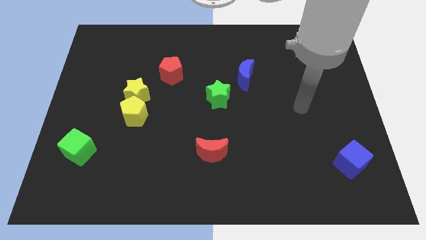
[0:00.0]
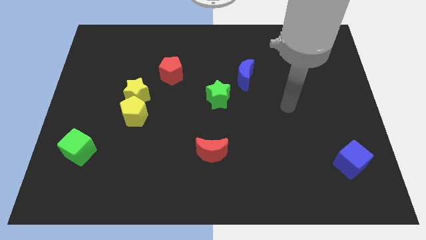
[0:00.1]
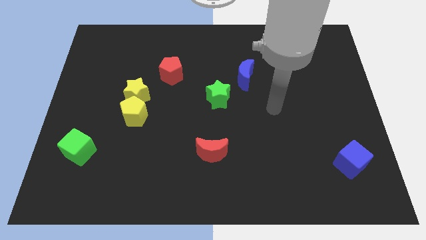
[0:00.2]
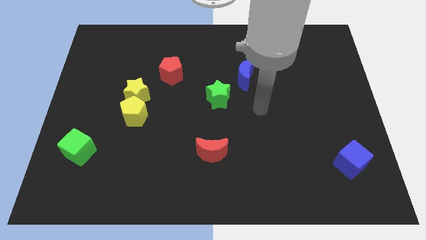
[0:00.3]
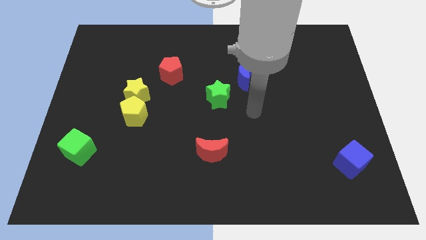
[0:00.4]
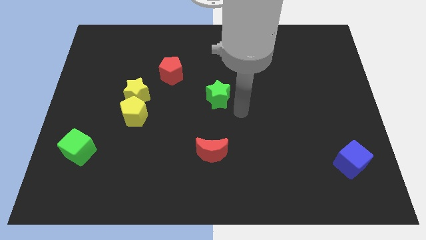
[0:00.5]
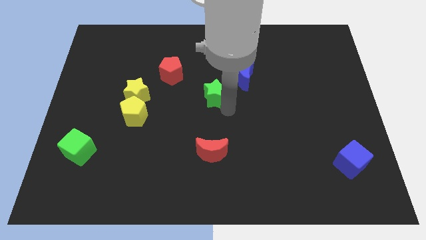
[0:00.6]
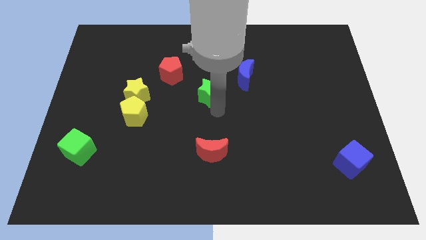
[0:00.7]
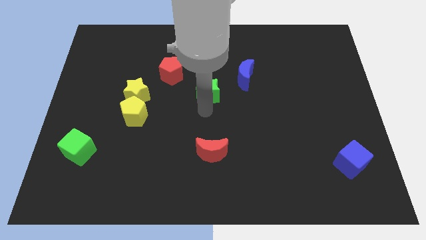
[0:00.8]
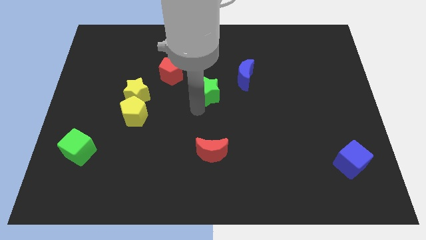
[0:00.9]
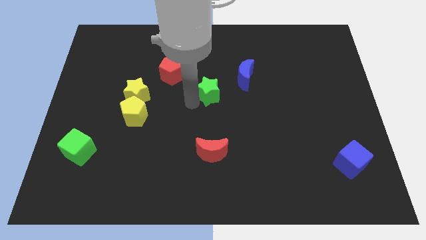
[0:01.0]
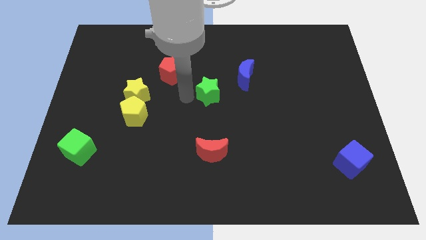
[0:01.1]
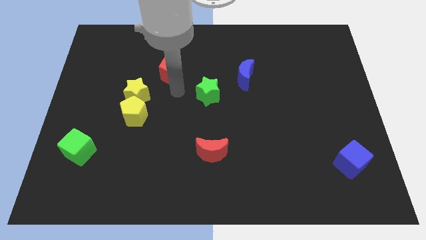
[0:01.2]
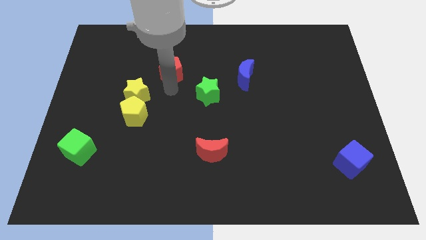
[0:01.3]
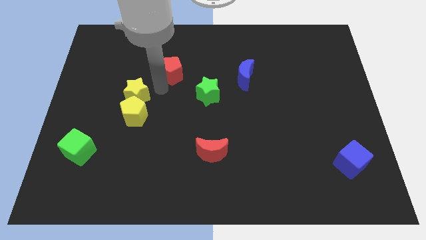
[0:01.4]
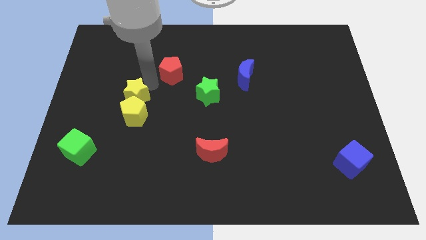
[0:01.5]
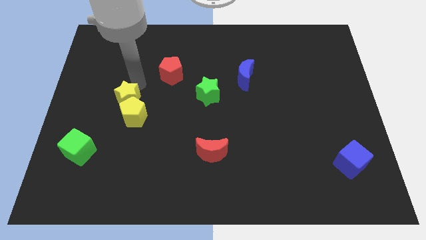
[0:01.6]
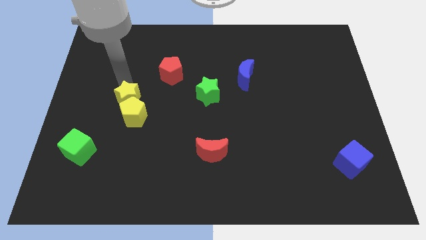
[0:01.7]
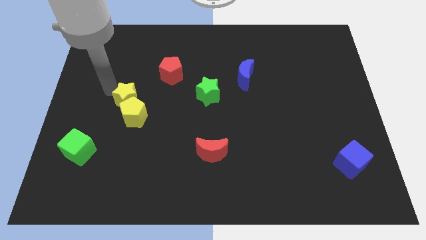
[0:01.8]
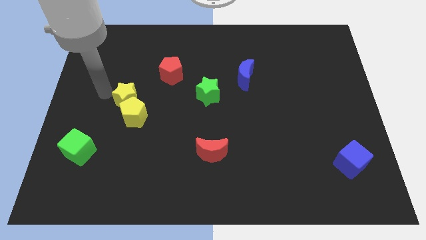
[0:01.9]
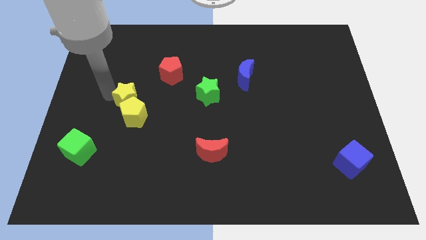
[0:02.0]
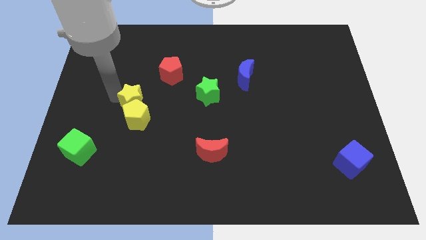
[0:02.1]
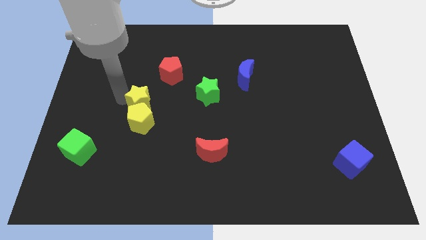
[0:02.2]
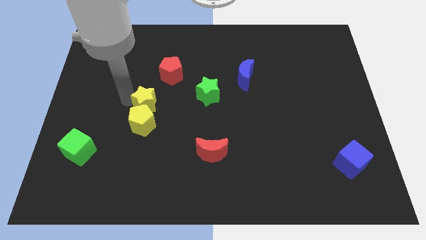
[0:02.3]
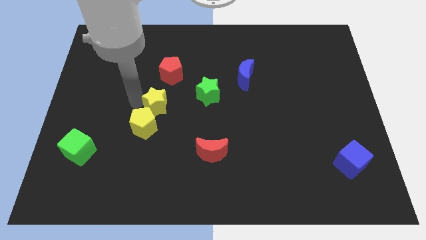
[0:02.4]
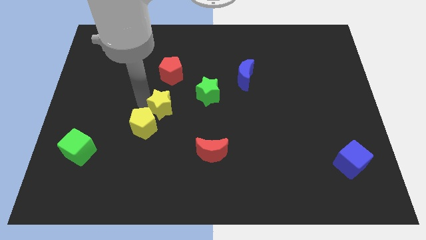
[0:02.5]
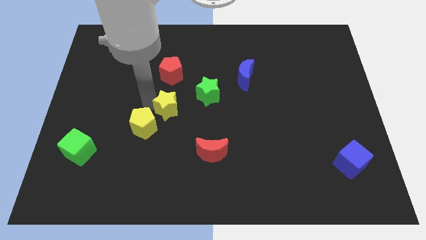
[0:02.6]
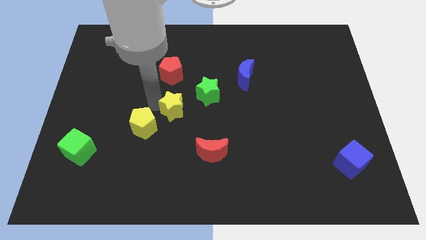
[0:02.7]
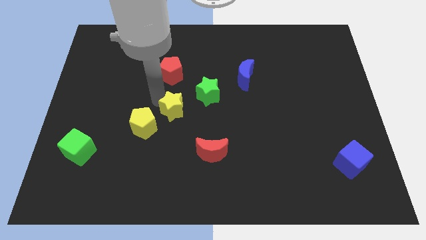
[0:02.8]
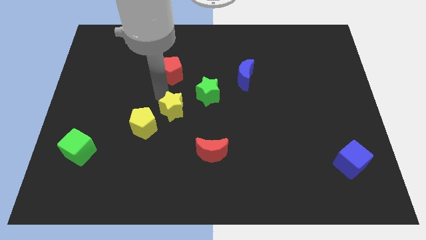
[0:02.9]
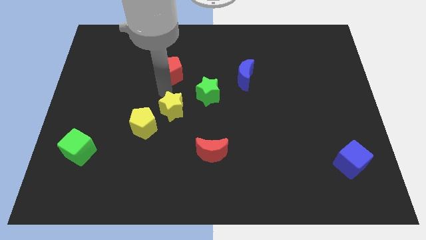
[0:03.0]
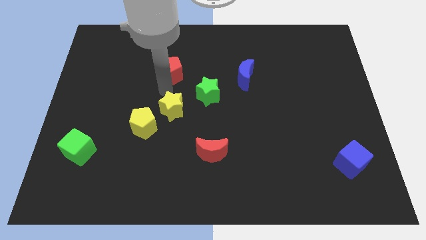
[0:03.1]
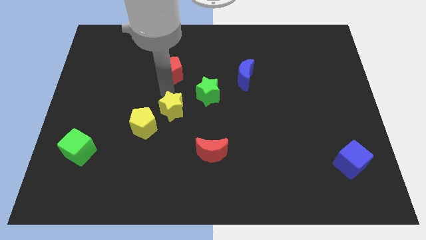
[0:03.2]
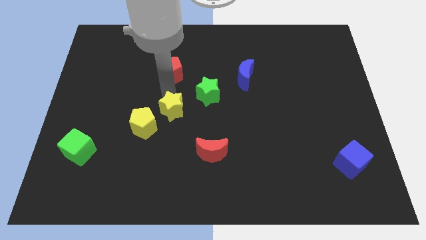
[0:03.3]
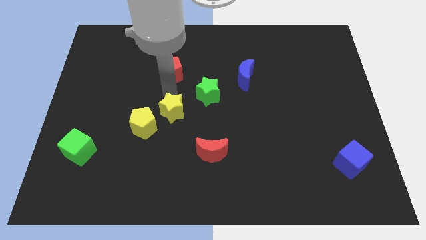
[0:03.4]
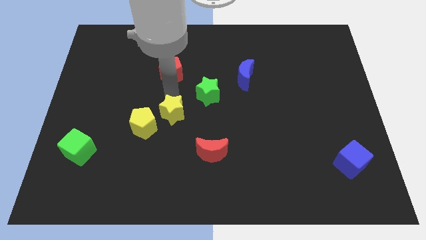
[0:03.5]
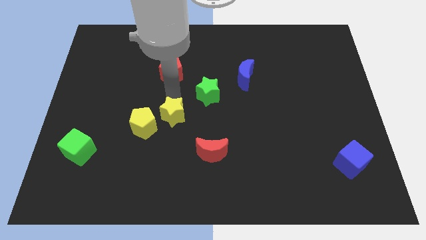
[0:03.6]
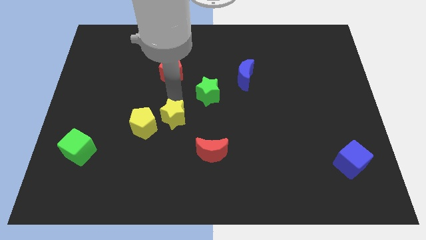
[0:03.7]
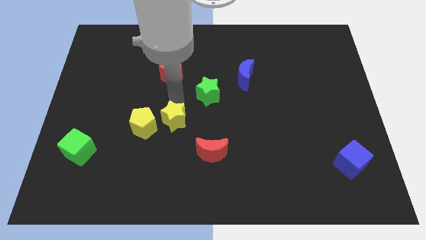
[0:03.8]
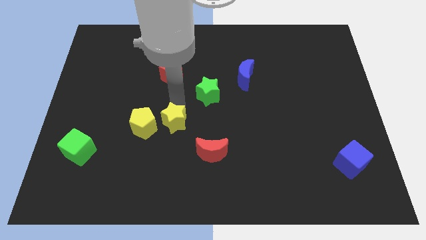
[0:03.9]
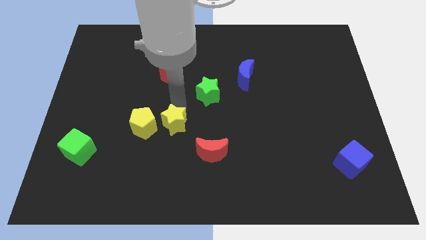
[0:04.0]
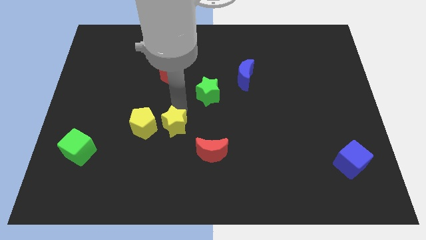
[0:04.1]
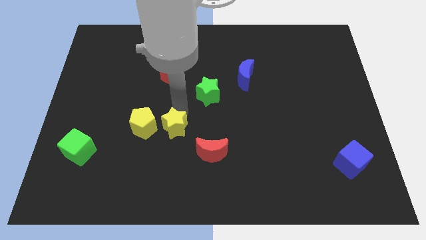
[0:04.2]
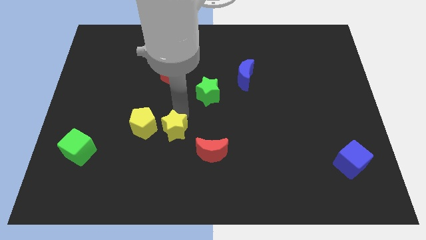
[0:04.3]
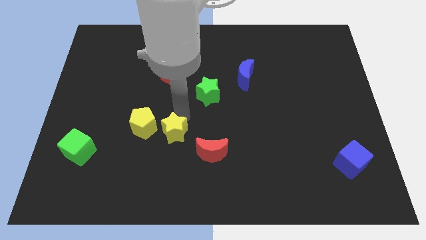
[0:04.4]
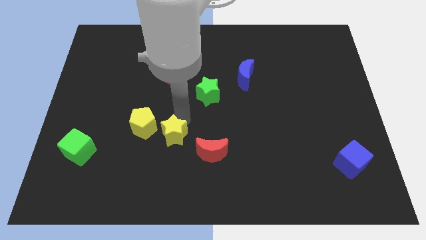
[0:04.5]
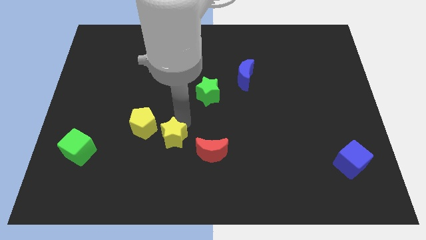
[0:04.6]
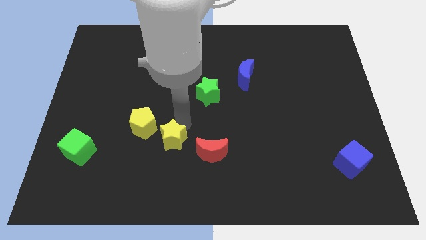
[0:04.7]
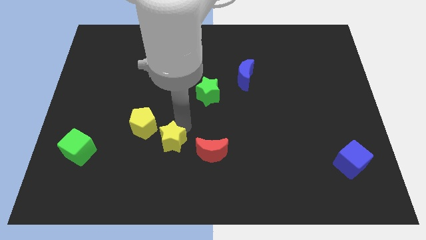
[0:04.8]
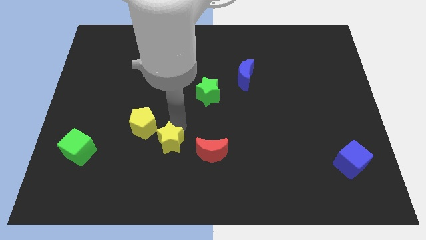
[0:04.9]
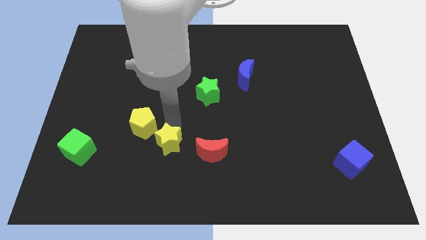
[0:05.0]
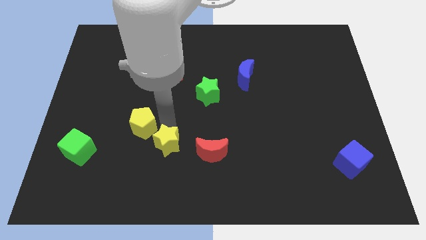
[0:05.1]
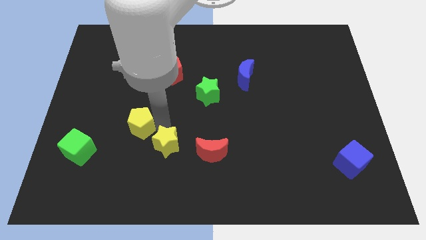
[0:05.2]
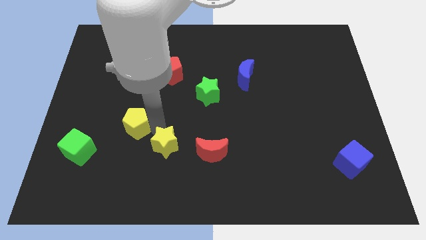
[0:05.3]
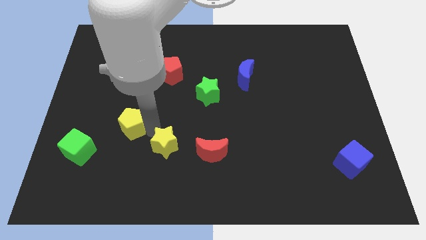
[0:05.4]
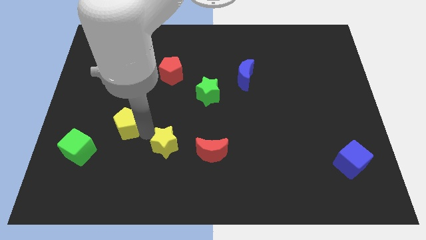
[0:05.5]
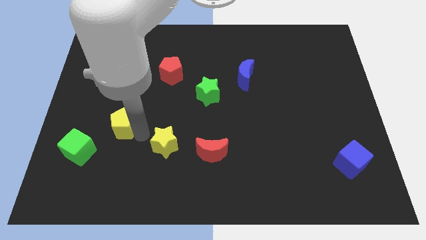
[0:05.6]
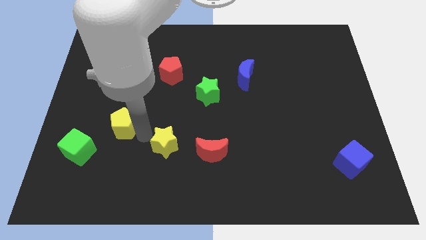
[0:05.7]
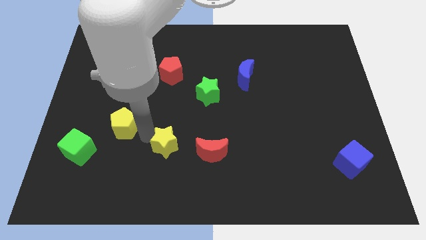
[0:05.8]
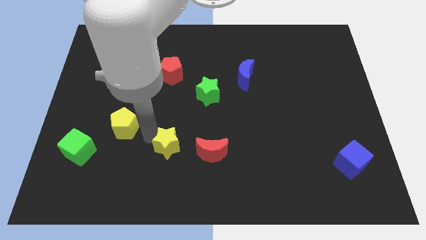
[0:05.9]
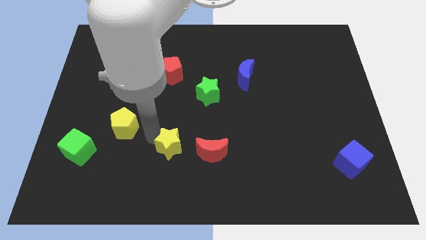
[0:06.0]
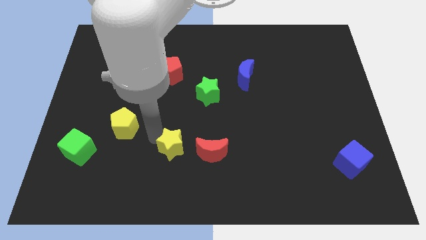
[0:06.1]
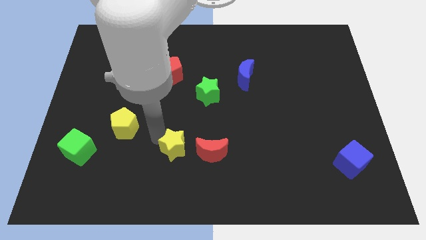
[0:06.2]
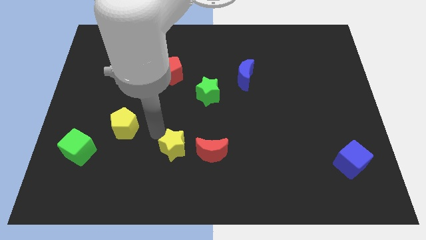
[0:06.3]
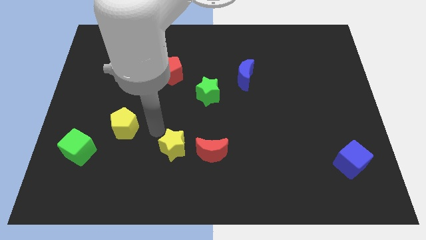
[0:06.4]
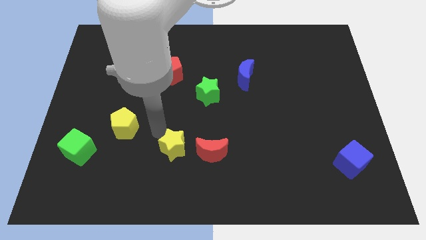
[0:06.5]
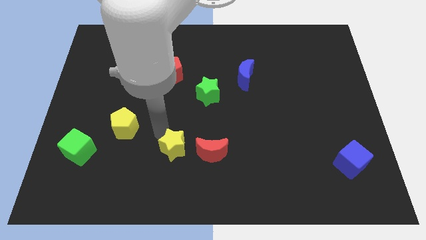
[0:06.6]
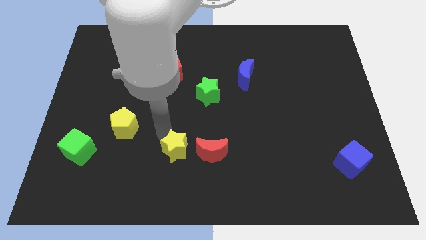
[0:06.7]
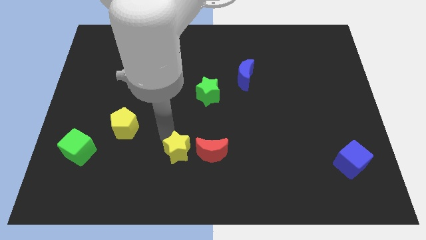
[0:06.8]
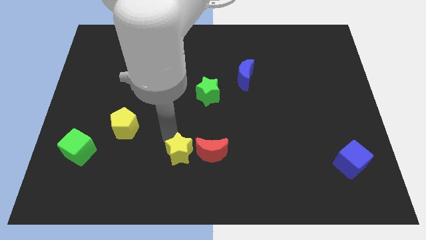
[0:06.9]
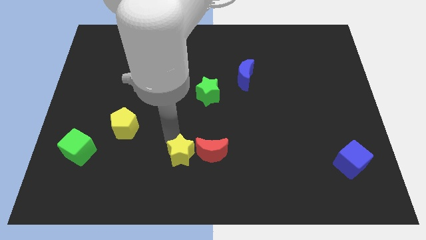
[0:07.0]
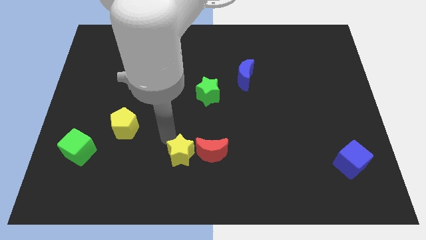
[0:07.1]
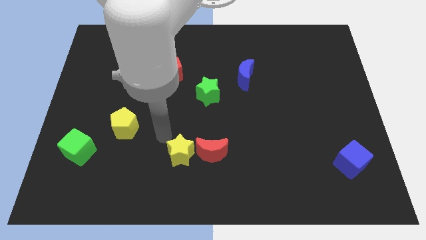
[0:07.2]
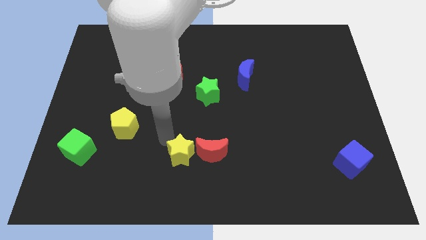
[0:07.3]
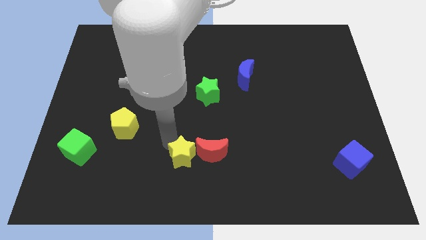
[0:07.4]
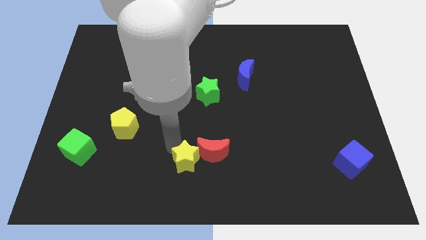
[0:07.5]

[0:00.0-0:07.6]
move the yellow star to the bottom side
